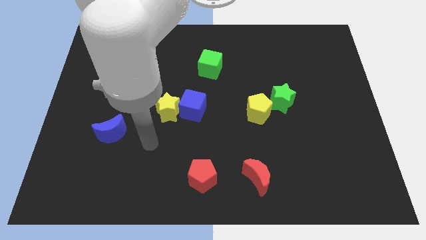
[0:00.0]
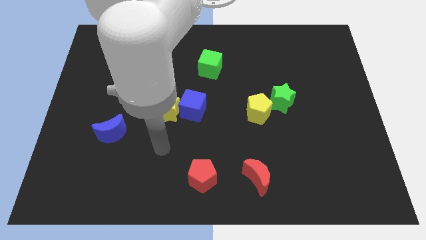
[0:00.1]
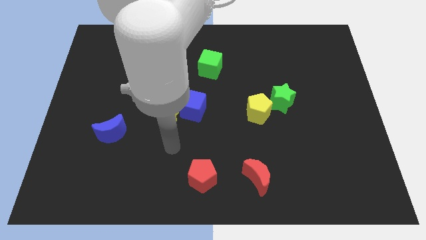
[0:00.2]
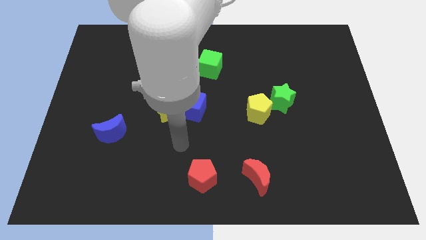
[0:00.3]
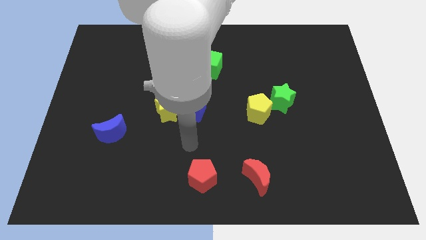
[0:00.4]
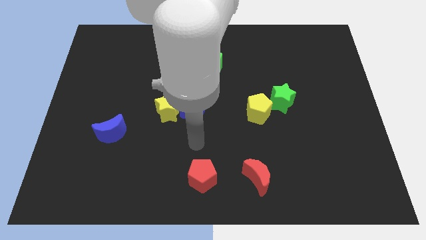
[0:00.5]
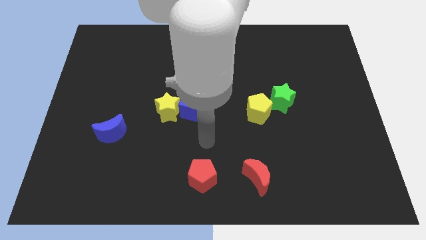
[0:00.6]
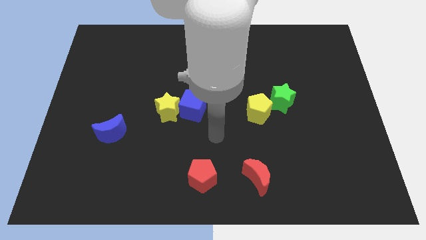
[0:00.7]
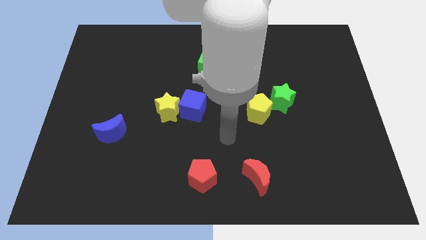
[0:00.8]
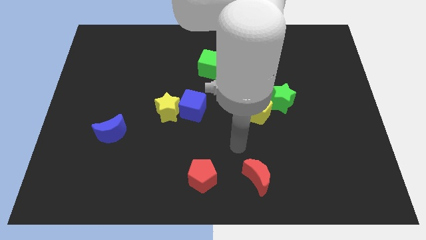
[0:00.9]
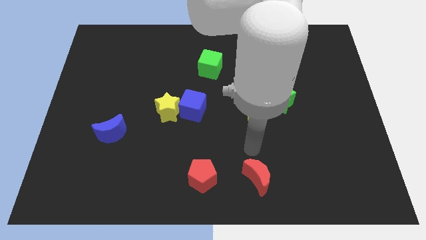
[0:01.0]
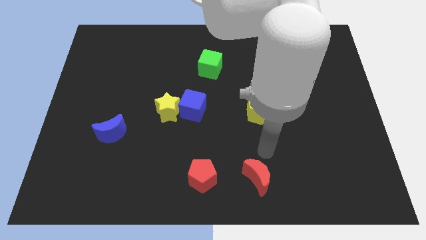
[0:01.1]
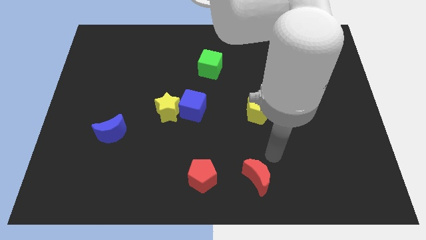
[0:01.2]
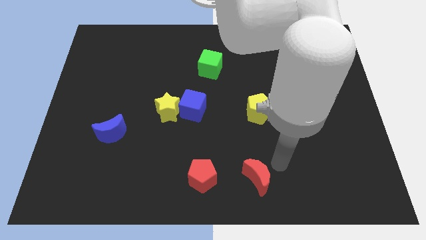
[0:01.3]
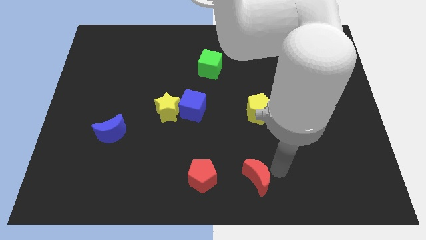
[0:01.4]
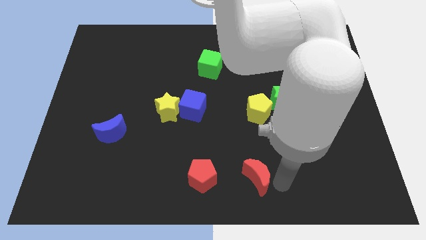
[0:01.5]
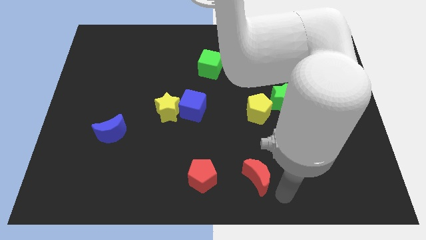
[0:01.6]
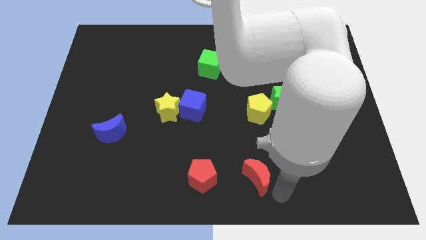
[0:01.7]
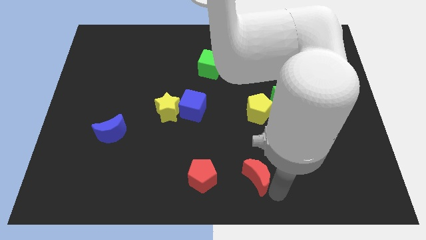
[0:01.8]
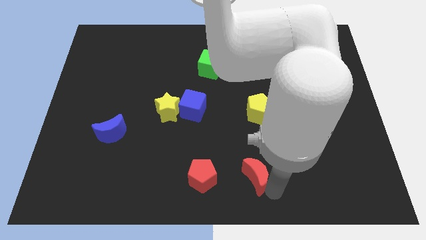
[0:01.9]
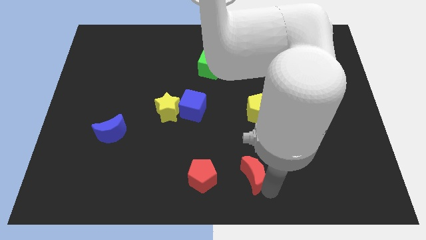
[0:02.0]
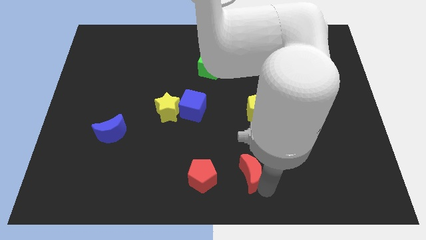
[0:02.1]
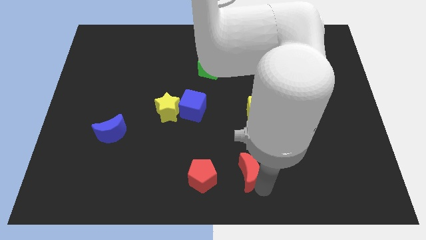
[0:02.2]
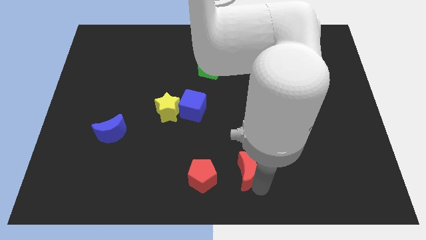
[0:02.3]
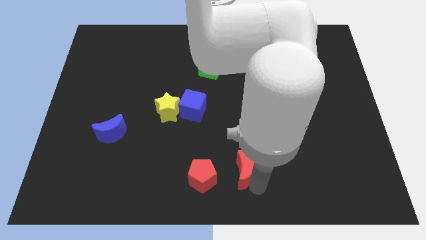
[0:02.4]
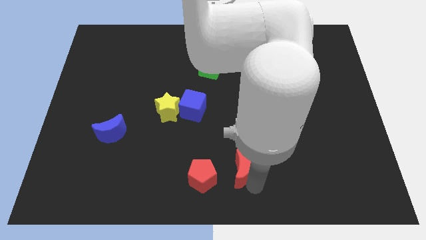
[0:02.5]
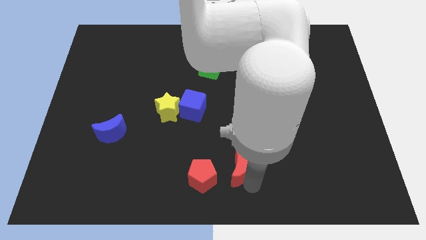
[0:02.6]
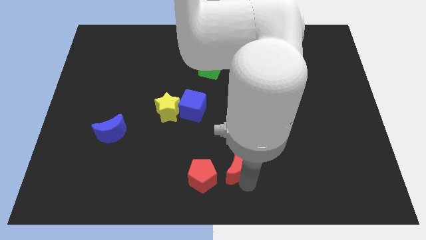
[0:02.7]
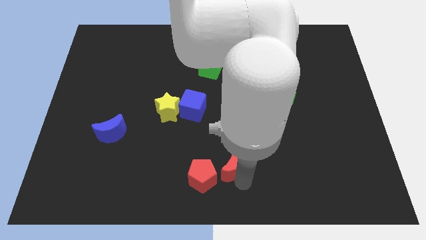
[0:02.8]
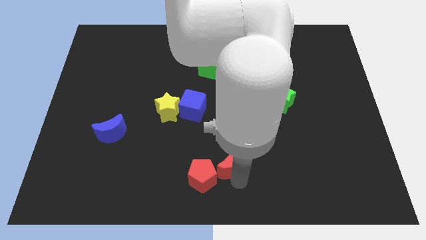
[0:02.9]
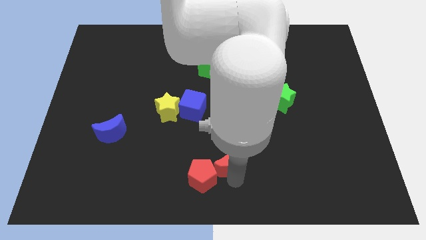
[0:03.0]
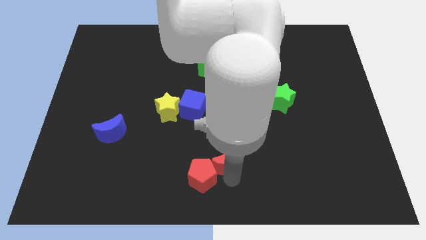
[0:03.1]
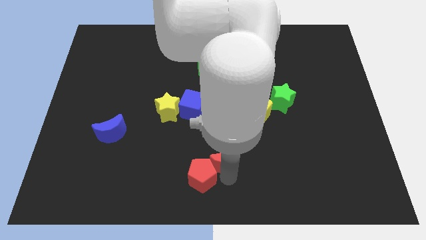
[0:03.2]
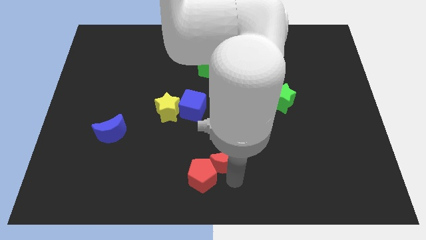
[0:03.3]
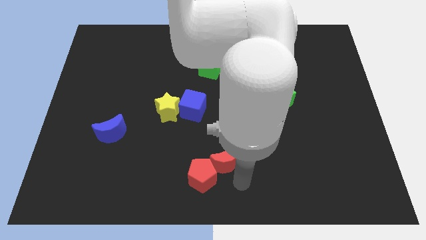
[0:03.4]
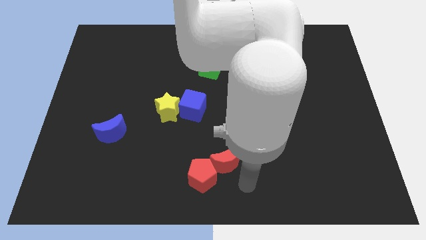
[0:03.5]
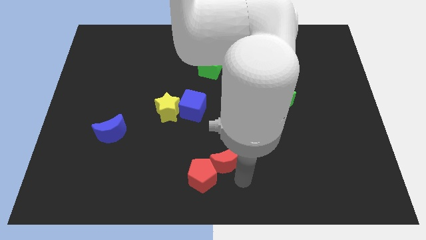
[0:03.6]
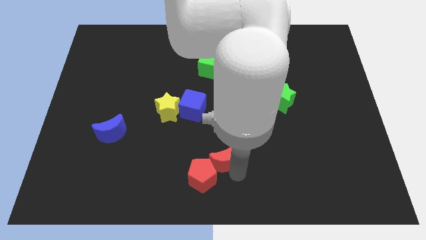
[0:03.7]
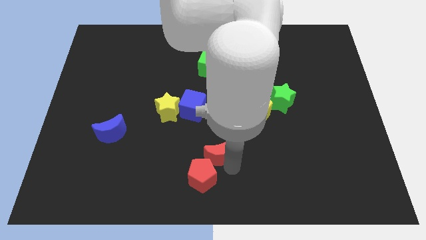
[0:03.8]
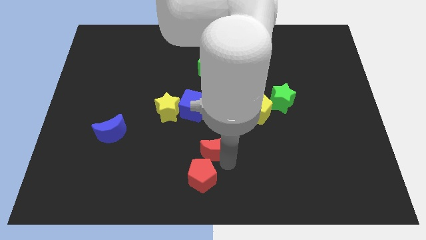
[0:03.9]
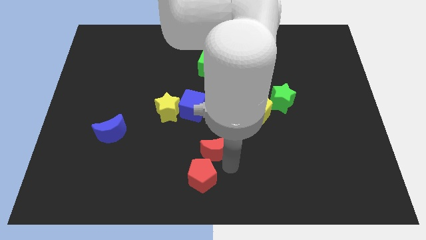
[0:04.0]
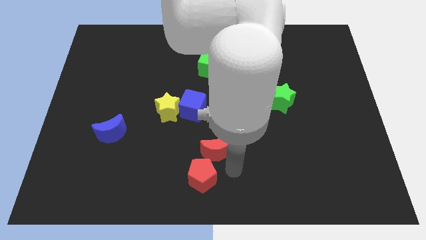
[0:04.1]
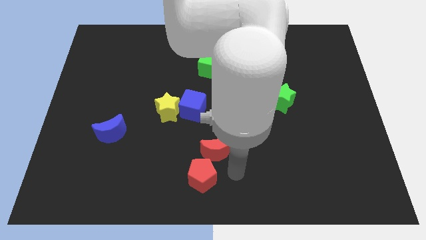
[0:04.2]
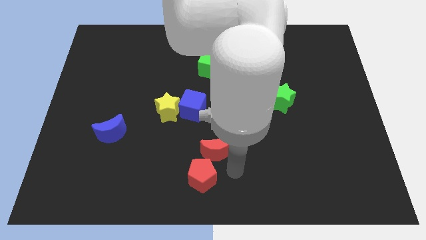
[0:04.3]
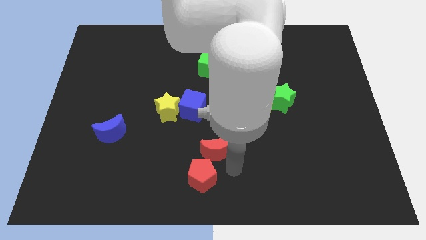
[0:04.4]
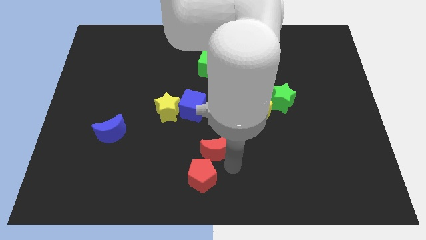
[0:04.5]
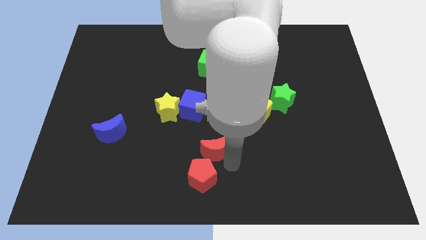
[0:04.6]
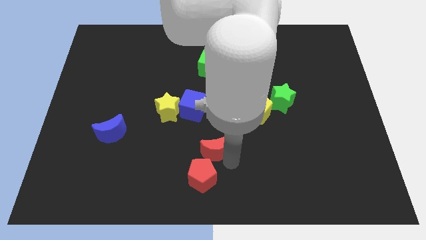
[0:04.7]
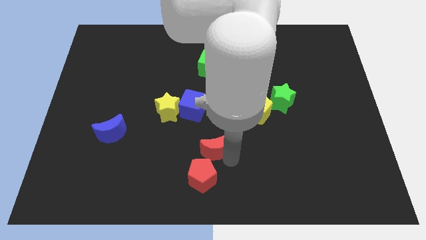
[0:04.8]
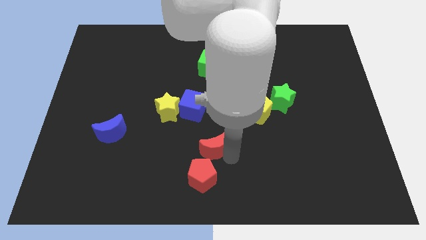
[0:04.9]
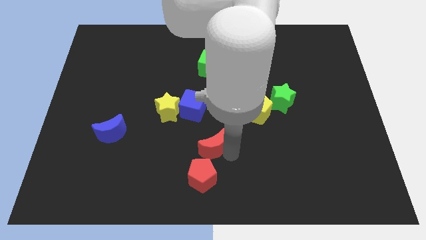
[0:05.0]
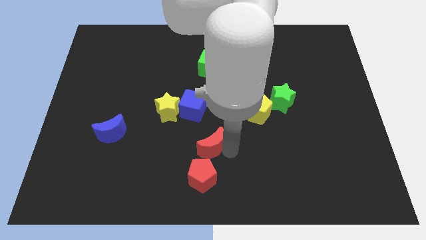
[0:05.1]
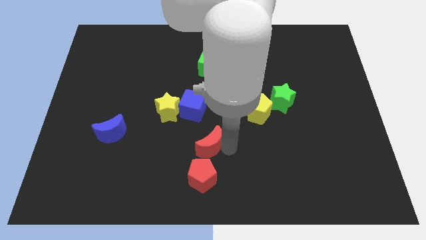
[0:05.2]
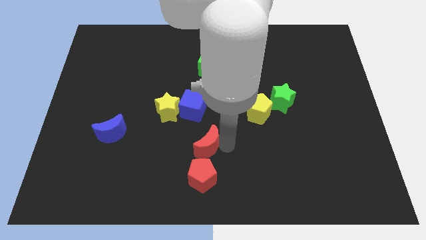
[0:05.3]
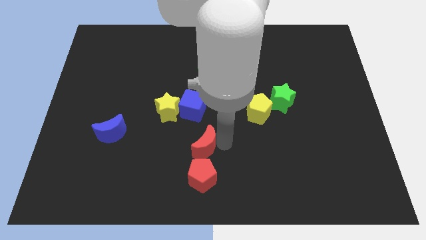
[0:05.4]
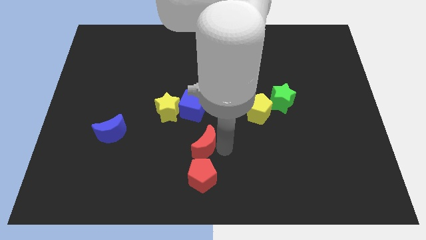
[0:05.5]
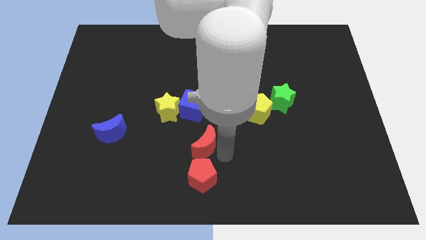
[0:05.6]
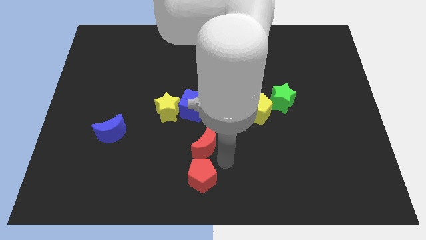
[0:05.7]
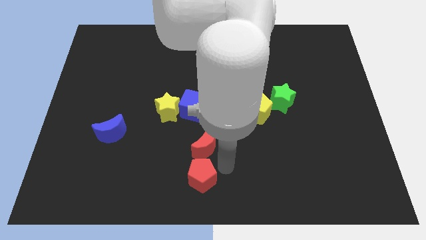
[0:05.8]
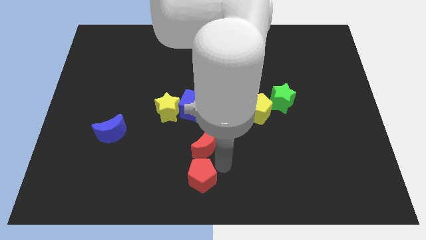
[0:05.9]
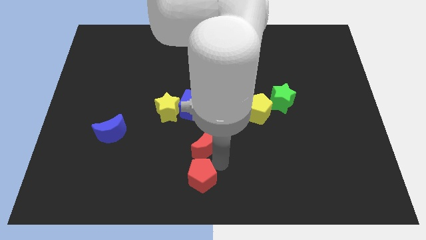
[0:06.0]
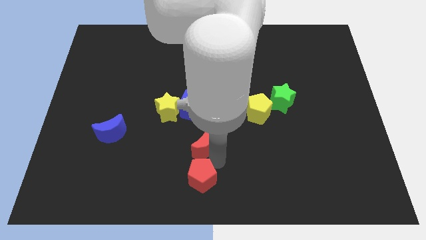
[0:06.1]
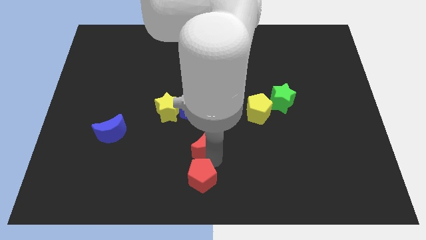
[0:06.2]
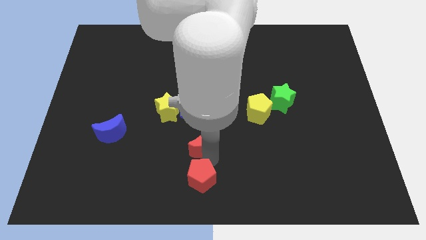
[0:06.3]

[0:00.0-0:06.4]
put the red moon to the bottom right of the yellow star

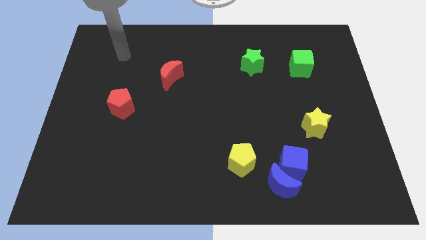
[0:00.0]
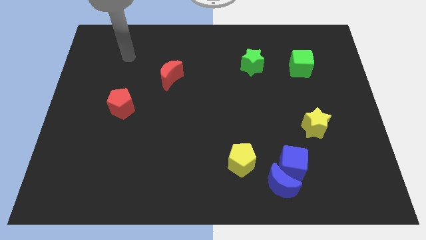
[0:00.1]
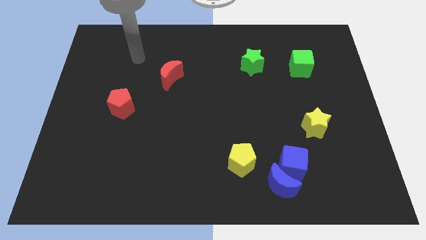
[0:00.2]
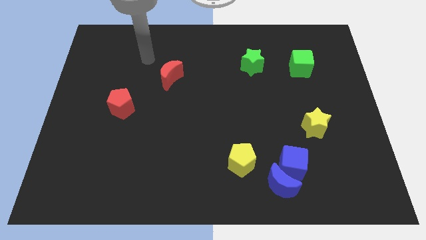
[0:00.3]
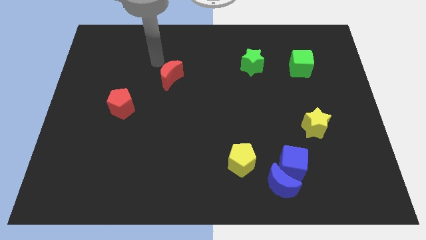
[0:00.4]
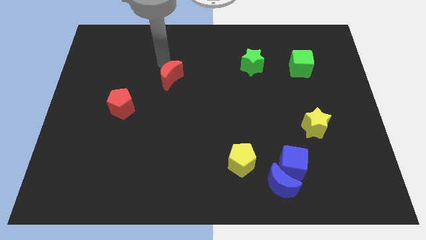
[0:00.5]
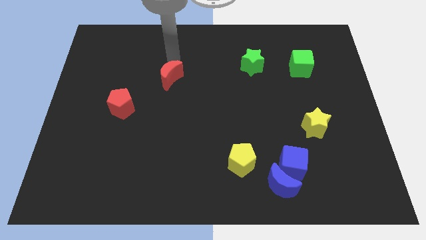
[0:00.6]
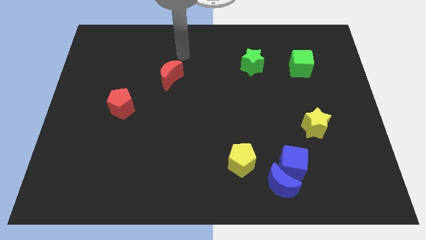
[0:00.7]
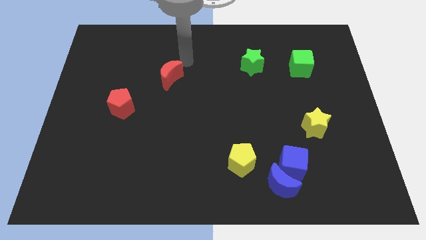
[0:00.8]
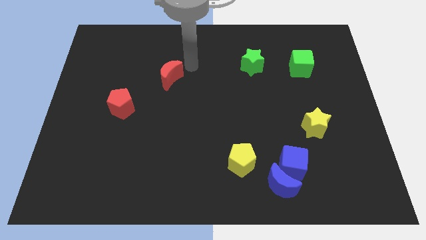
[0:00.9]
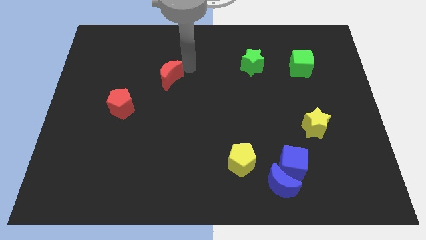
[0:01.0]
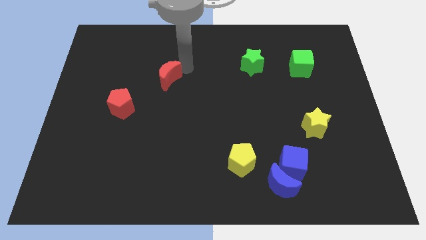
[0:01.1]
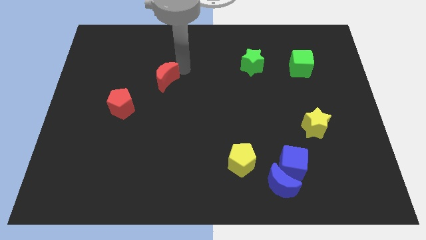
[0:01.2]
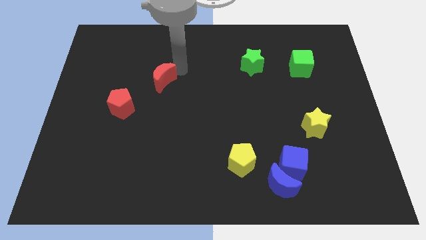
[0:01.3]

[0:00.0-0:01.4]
slide the red moon diagonally up and to the right of the red pentagon
